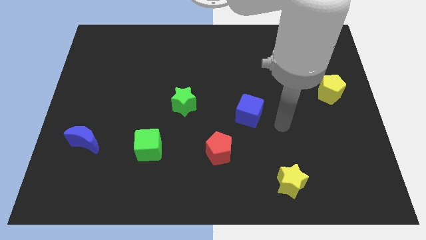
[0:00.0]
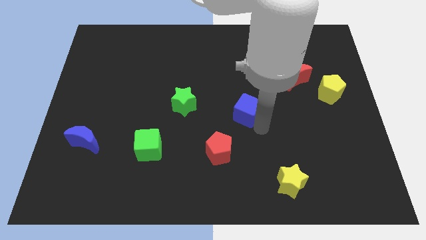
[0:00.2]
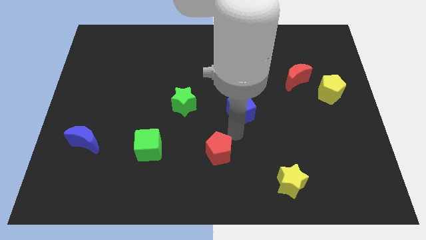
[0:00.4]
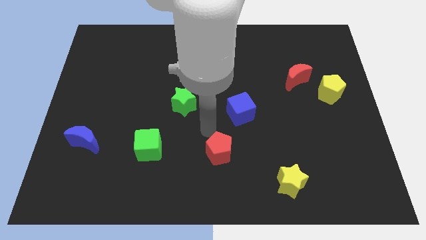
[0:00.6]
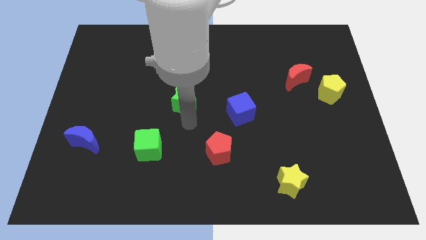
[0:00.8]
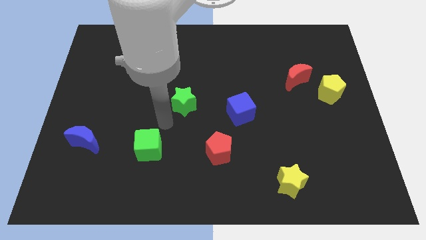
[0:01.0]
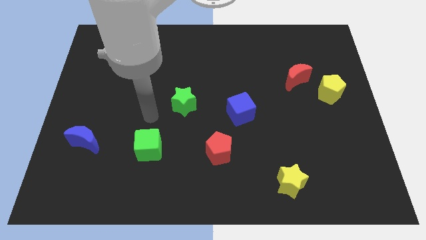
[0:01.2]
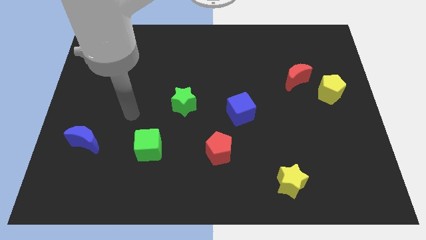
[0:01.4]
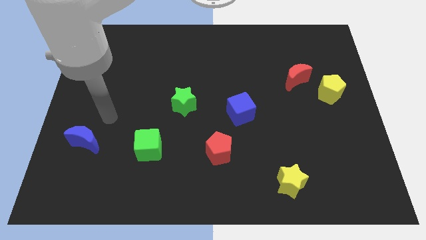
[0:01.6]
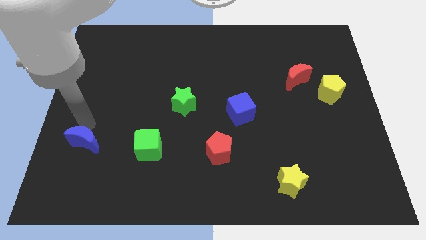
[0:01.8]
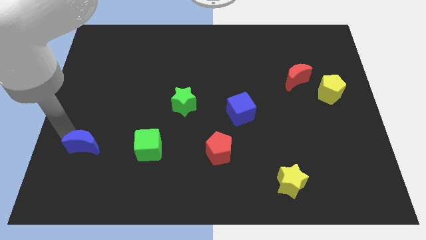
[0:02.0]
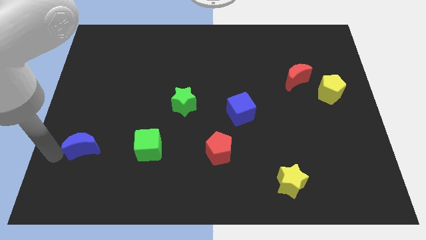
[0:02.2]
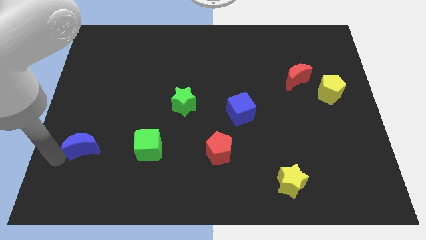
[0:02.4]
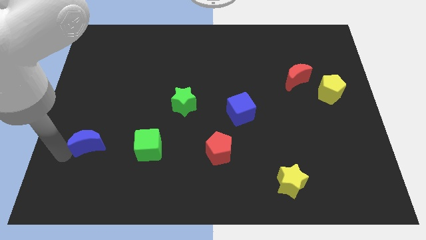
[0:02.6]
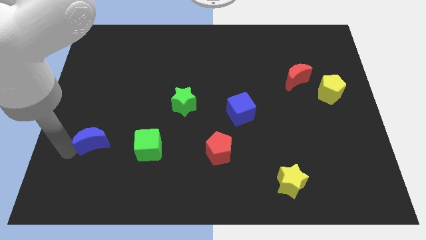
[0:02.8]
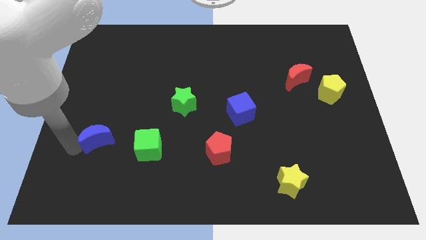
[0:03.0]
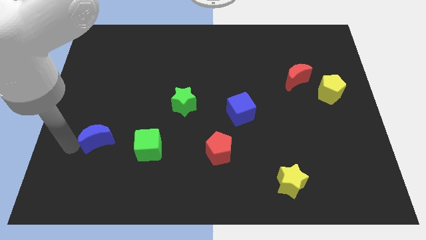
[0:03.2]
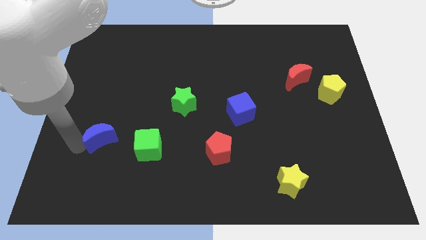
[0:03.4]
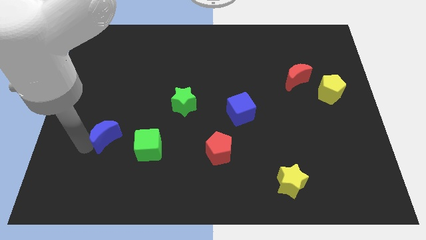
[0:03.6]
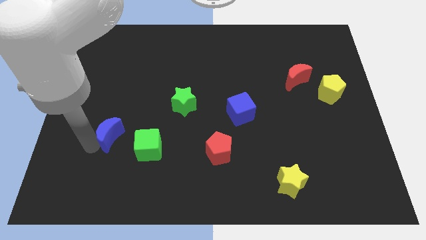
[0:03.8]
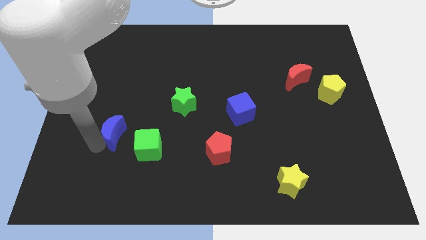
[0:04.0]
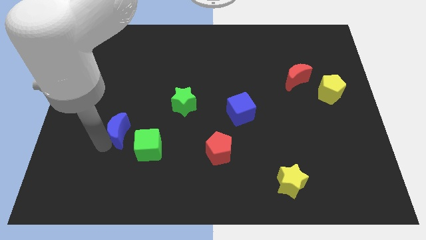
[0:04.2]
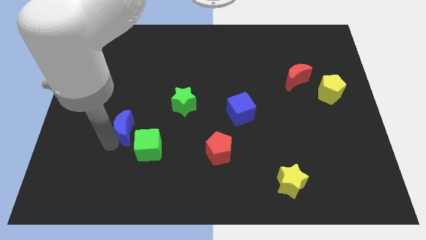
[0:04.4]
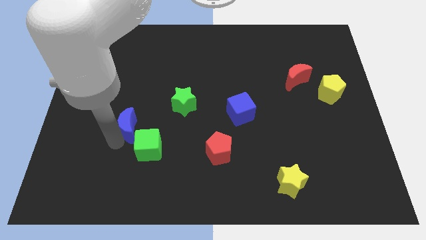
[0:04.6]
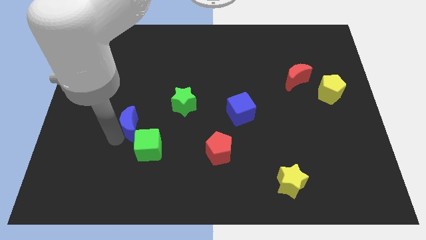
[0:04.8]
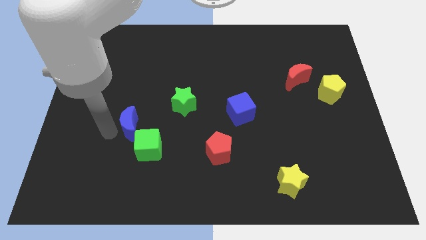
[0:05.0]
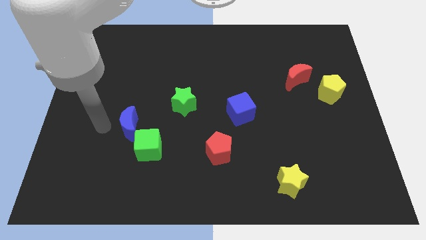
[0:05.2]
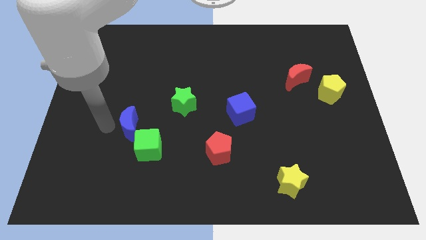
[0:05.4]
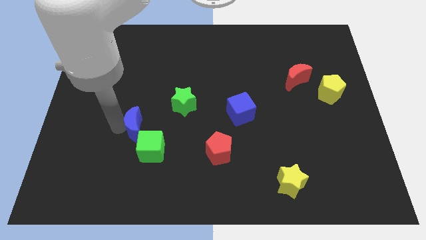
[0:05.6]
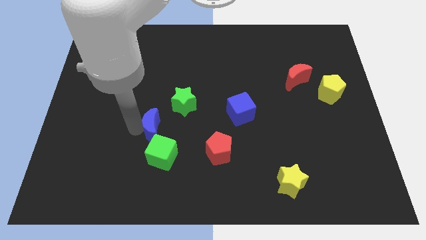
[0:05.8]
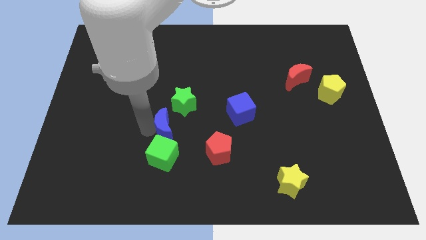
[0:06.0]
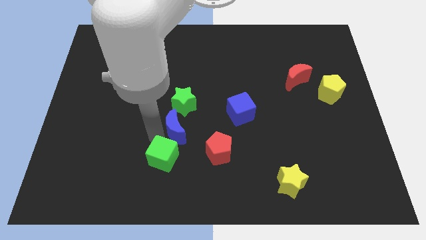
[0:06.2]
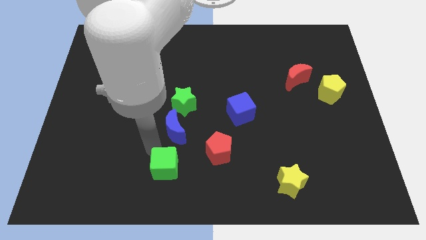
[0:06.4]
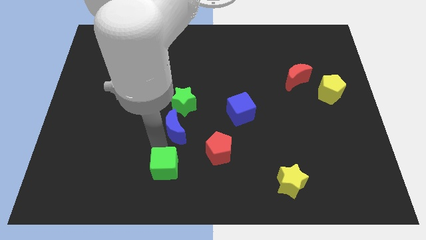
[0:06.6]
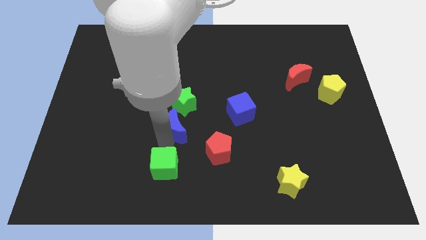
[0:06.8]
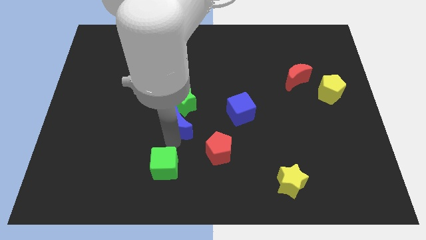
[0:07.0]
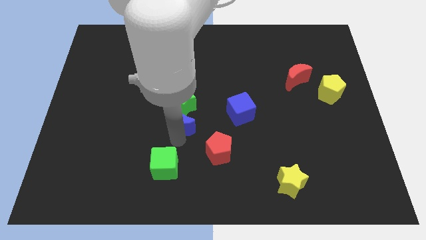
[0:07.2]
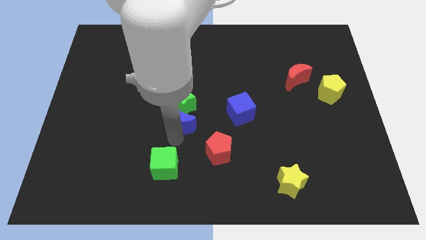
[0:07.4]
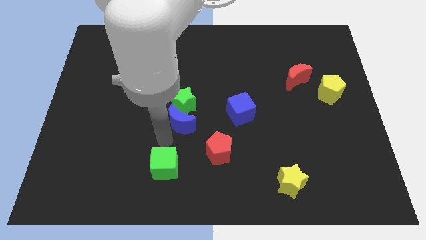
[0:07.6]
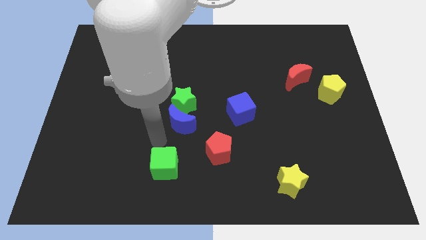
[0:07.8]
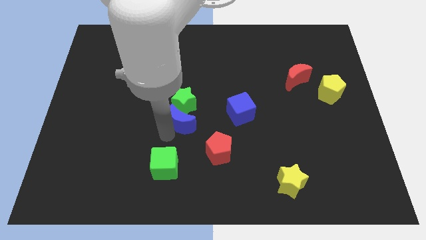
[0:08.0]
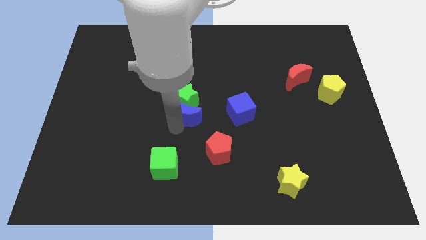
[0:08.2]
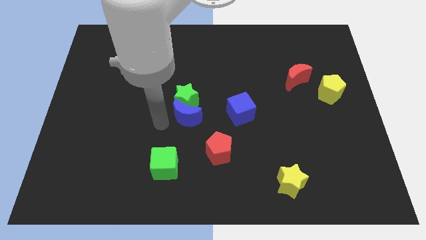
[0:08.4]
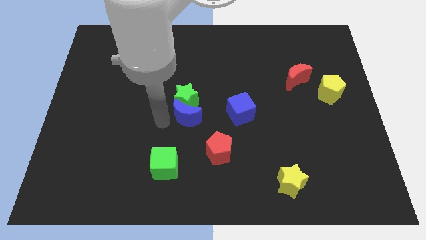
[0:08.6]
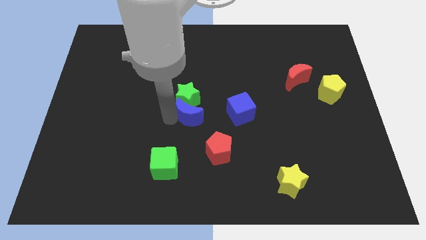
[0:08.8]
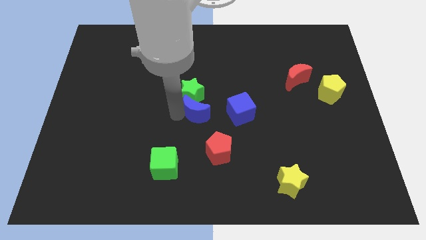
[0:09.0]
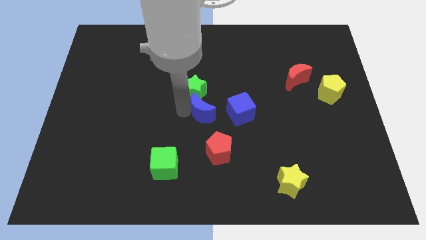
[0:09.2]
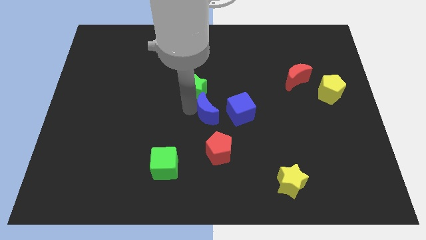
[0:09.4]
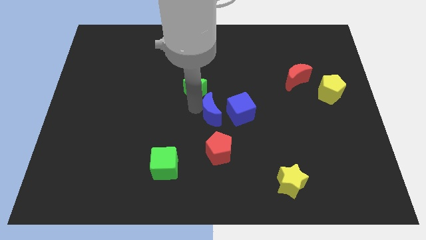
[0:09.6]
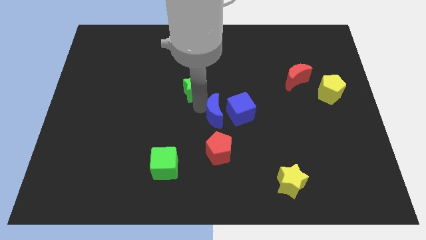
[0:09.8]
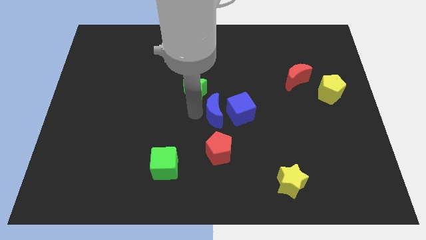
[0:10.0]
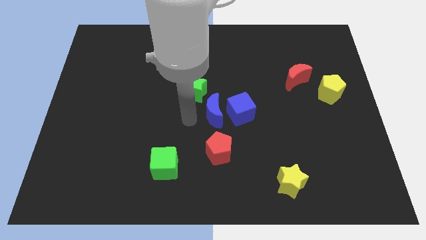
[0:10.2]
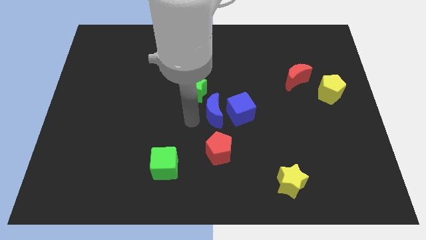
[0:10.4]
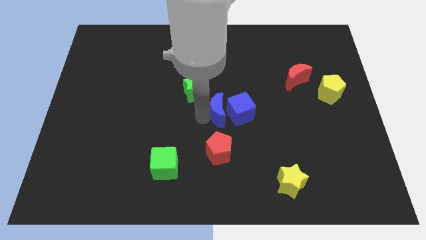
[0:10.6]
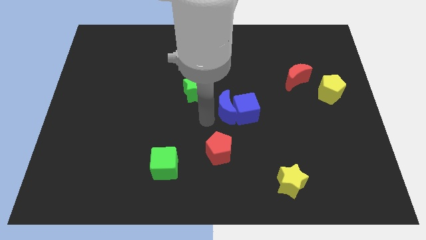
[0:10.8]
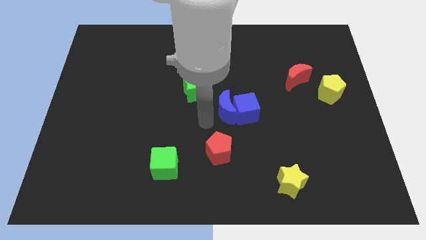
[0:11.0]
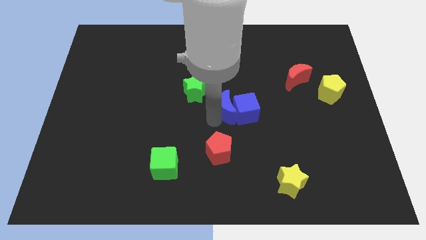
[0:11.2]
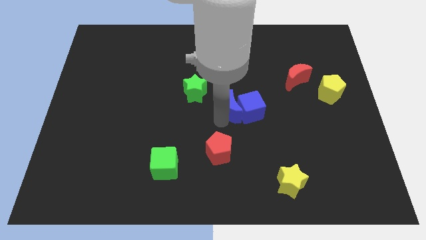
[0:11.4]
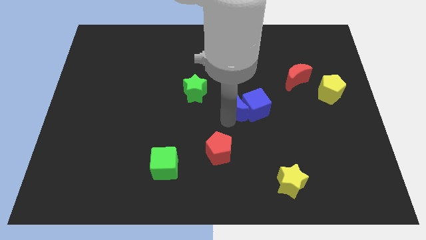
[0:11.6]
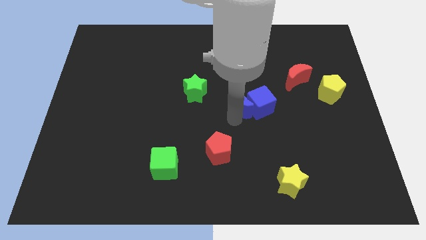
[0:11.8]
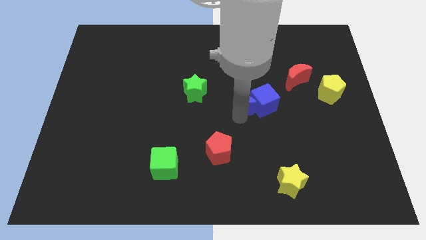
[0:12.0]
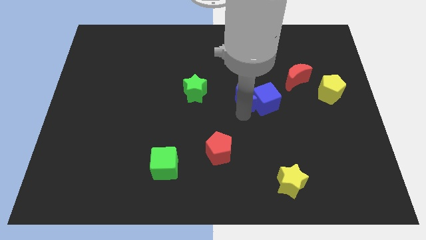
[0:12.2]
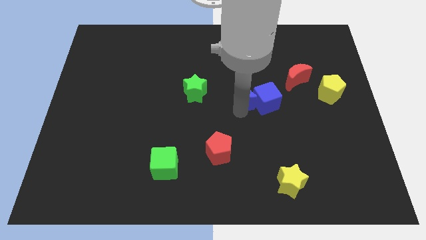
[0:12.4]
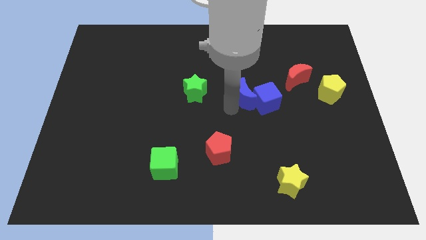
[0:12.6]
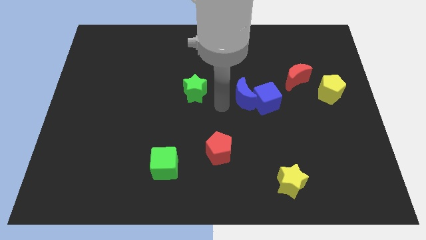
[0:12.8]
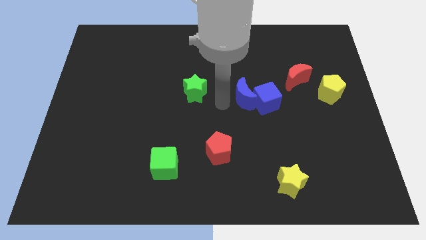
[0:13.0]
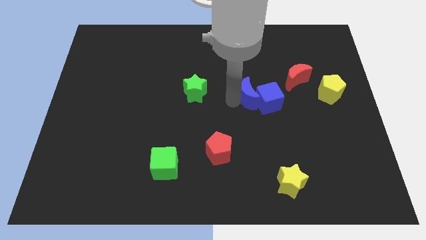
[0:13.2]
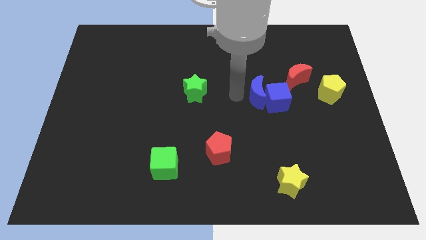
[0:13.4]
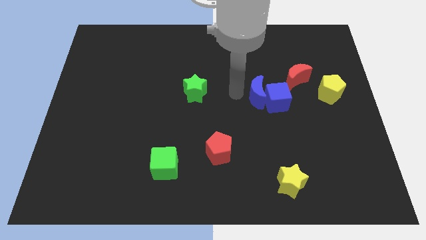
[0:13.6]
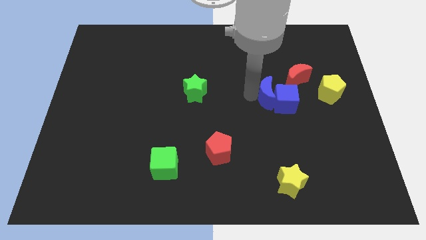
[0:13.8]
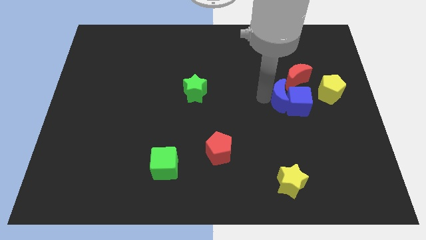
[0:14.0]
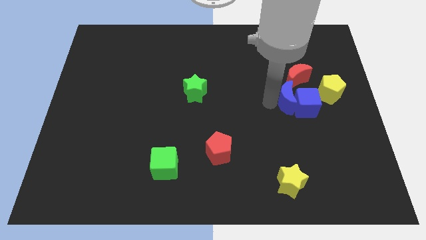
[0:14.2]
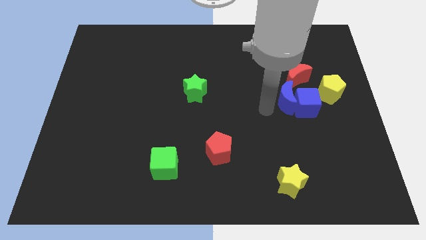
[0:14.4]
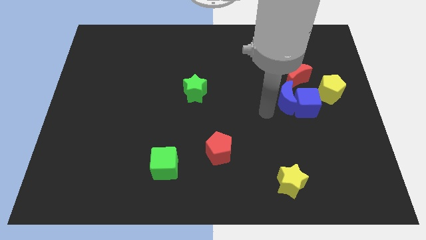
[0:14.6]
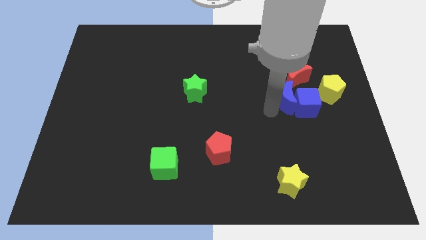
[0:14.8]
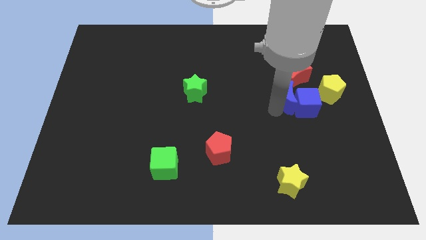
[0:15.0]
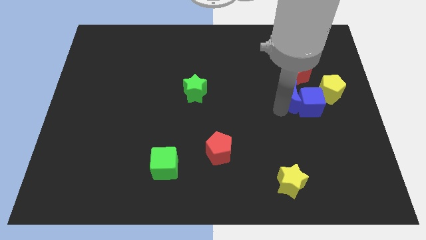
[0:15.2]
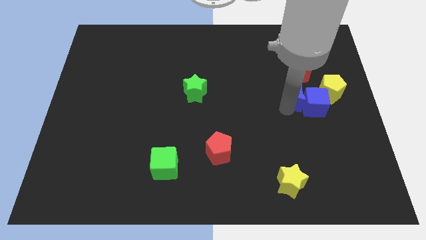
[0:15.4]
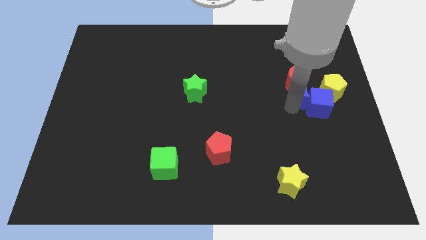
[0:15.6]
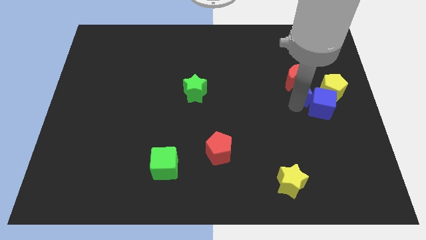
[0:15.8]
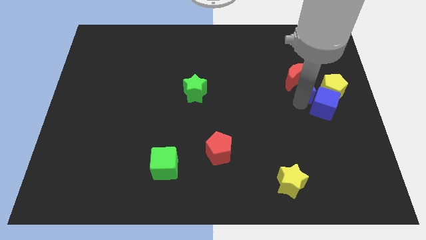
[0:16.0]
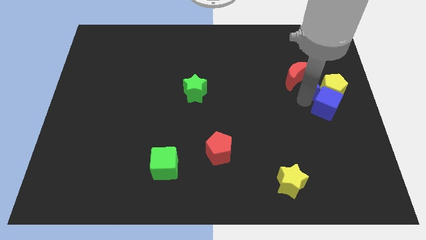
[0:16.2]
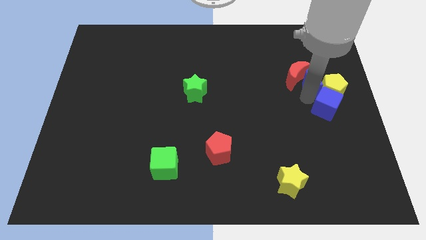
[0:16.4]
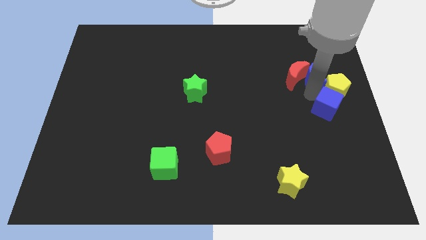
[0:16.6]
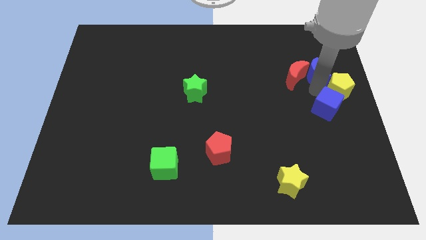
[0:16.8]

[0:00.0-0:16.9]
slide the blue moon to the top of the yellow pentagon
